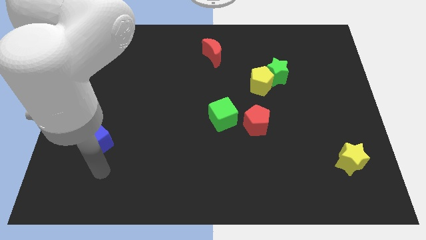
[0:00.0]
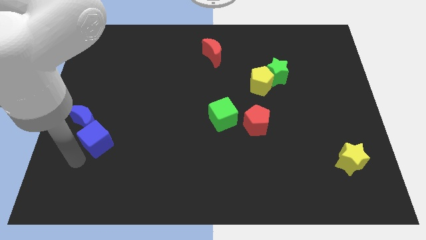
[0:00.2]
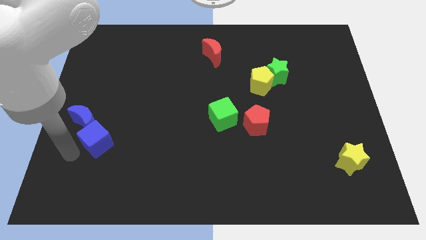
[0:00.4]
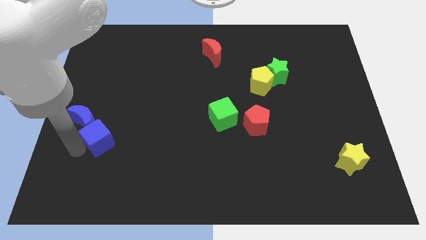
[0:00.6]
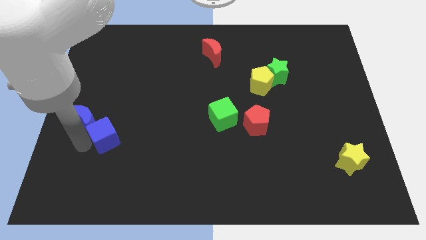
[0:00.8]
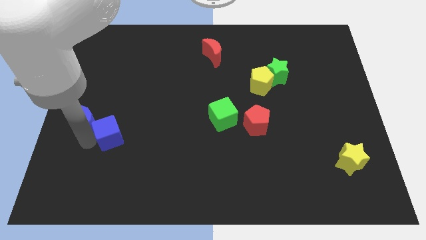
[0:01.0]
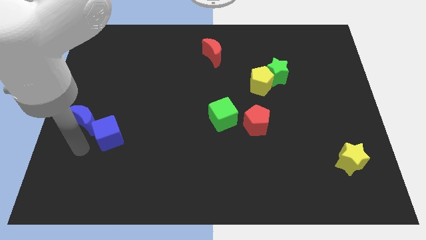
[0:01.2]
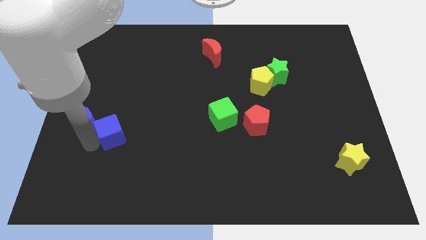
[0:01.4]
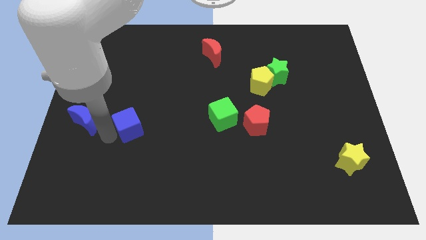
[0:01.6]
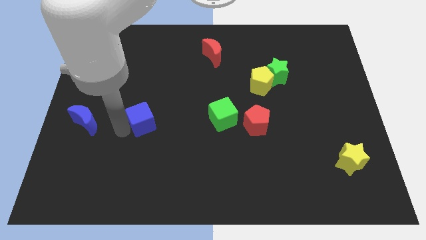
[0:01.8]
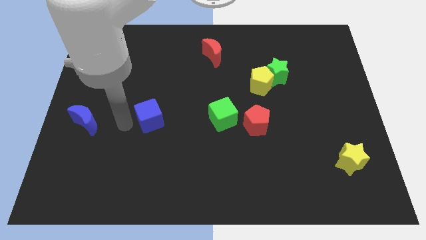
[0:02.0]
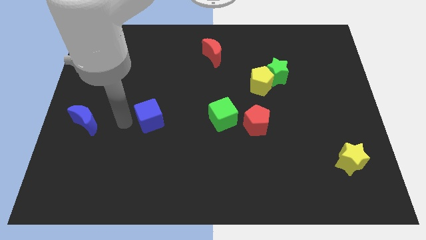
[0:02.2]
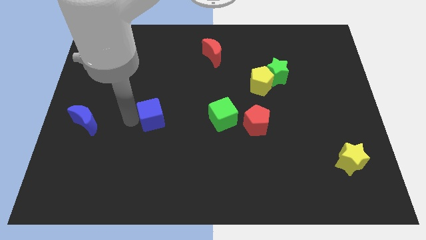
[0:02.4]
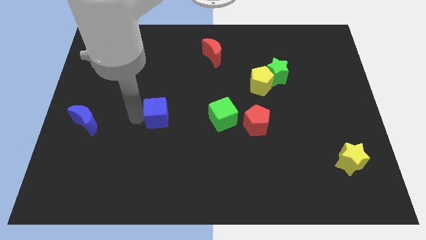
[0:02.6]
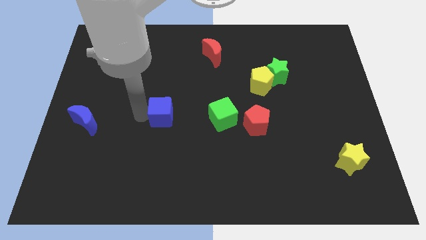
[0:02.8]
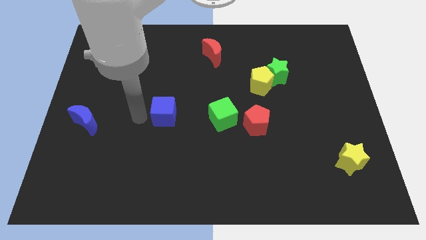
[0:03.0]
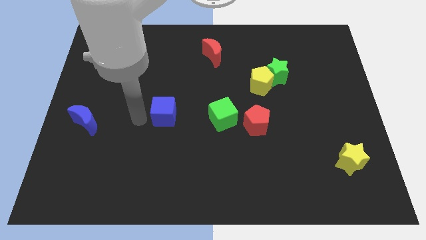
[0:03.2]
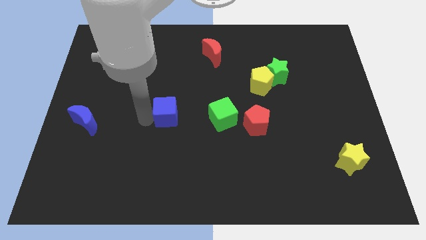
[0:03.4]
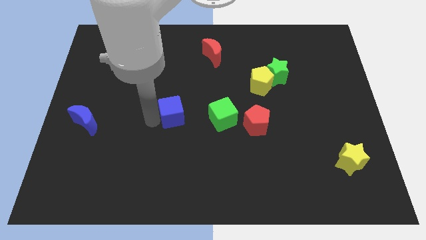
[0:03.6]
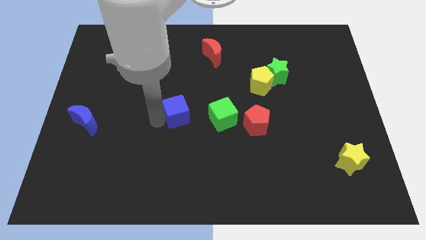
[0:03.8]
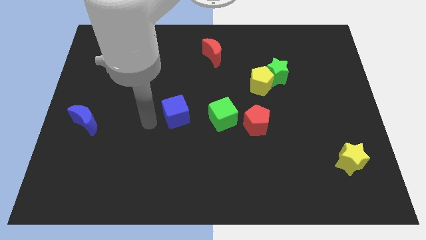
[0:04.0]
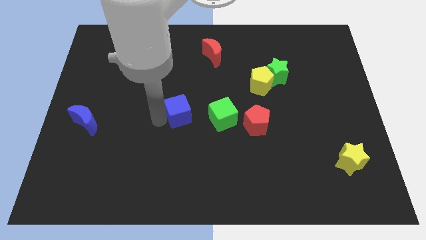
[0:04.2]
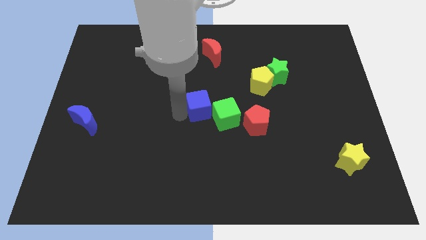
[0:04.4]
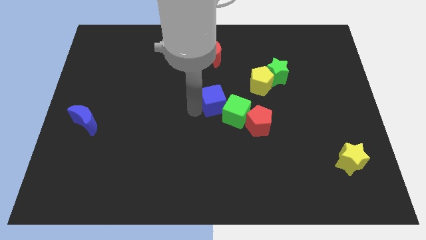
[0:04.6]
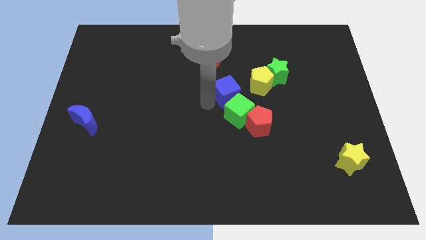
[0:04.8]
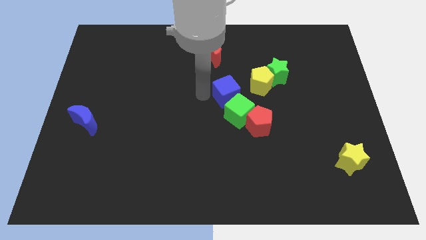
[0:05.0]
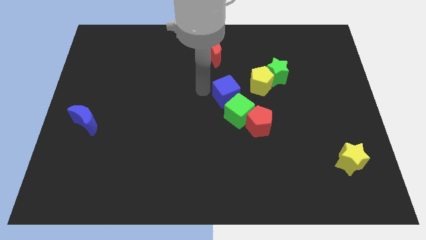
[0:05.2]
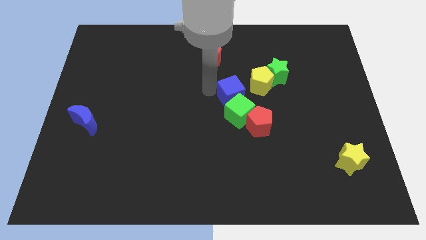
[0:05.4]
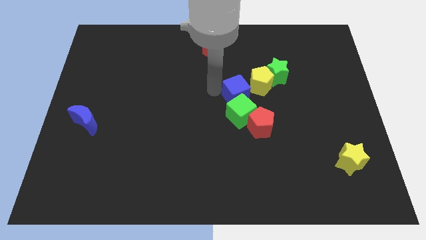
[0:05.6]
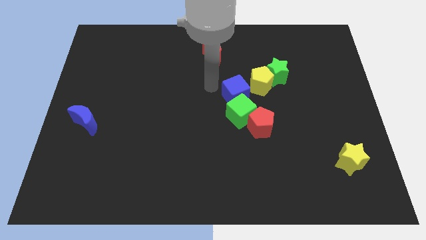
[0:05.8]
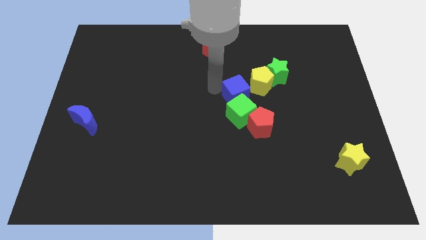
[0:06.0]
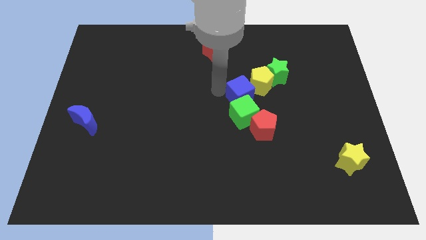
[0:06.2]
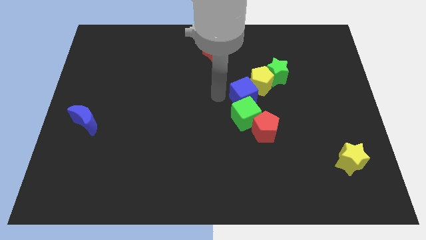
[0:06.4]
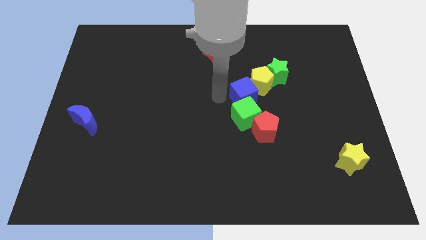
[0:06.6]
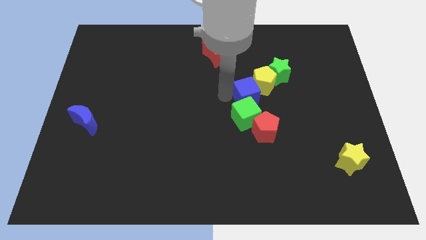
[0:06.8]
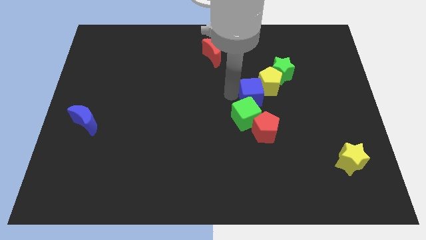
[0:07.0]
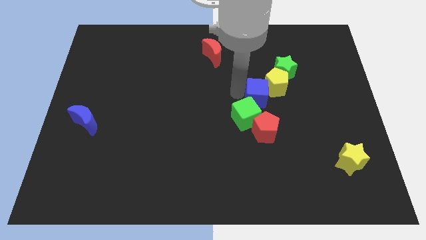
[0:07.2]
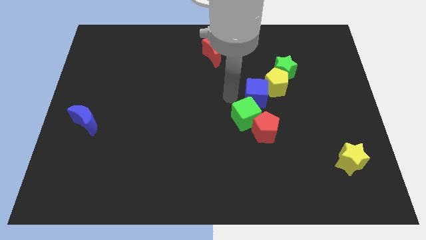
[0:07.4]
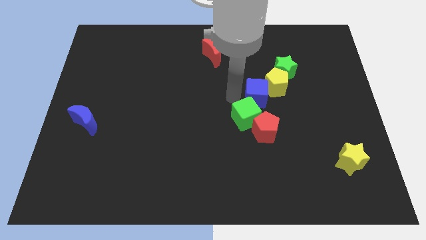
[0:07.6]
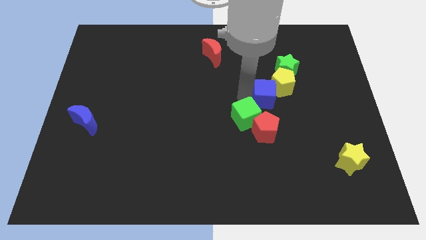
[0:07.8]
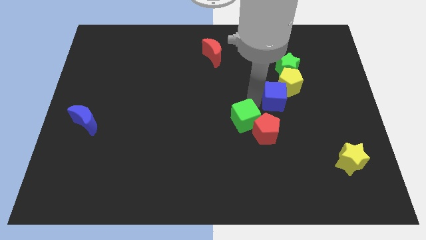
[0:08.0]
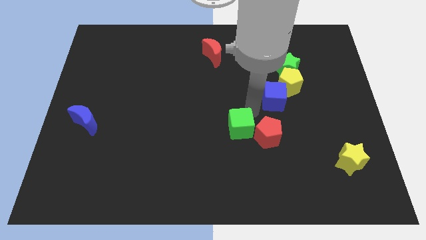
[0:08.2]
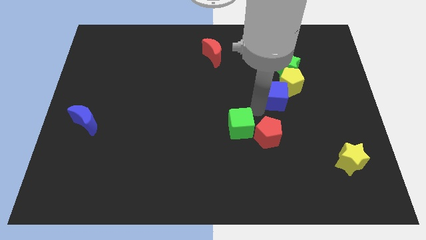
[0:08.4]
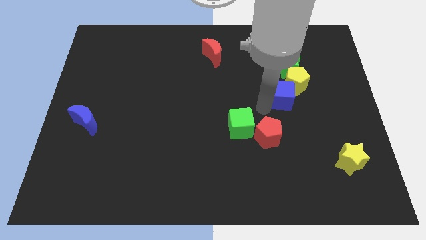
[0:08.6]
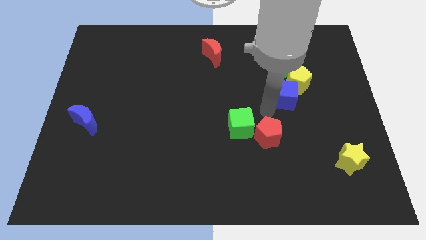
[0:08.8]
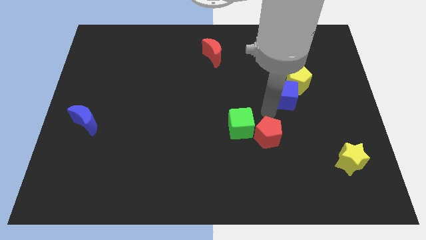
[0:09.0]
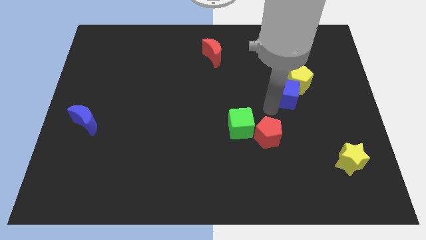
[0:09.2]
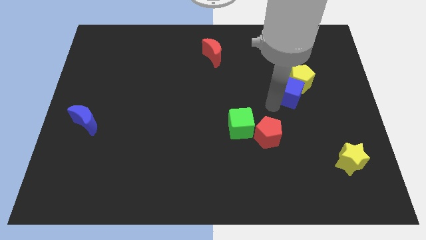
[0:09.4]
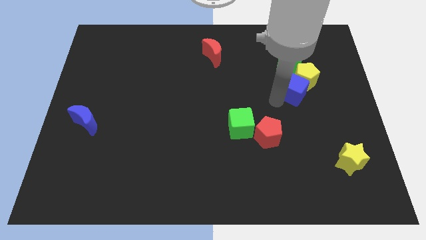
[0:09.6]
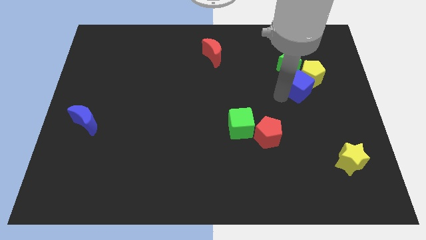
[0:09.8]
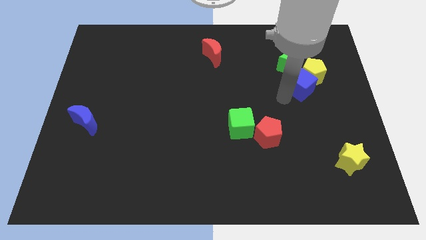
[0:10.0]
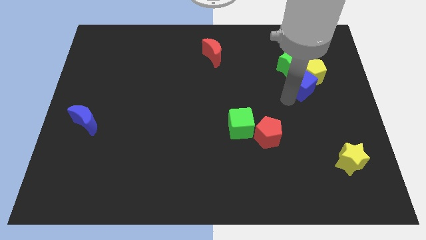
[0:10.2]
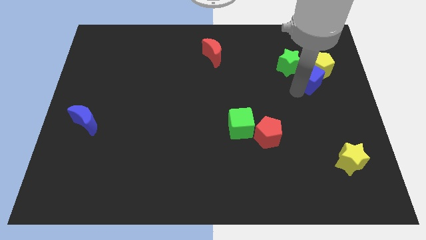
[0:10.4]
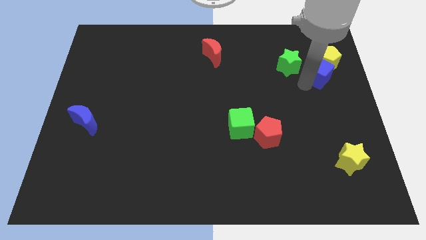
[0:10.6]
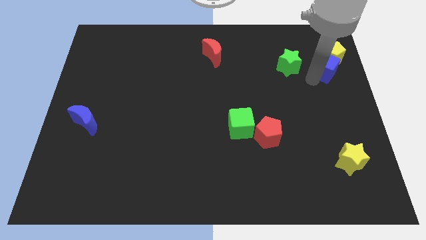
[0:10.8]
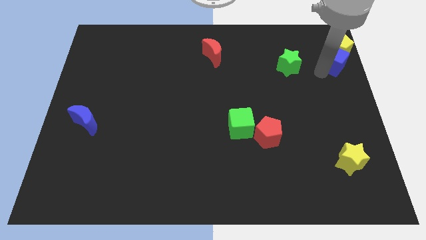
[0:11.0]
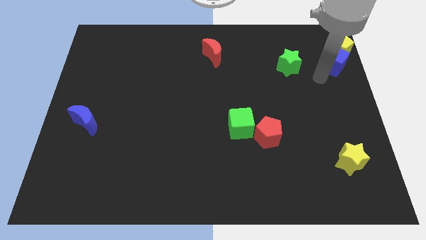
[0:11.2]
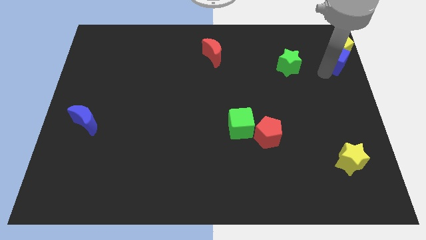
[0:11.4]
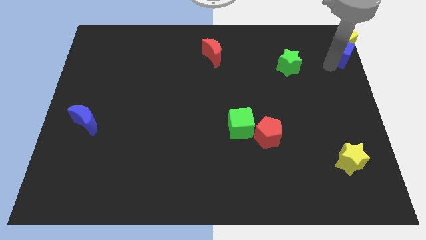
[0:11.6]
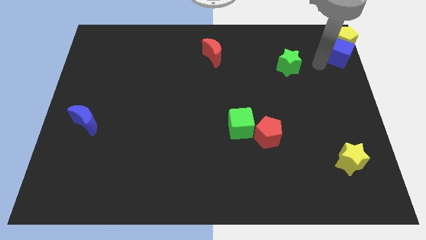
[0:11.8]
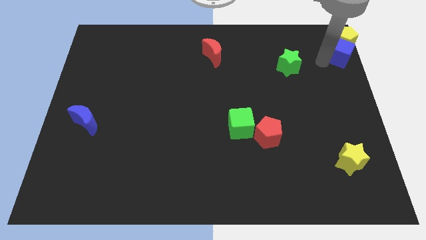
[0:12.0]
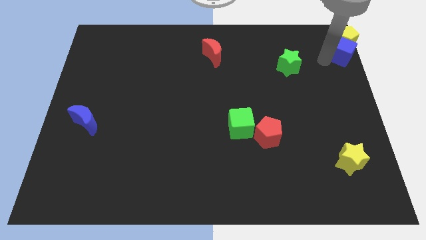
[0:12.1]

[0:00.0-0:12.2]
move the blue cube to the top right corner

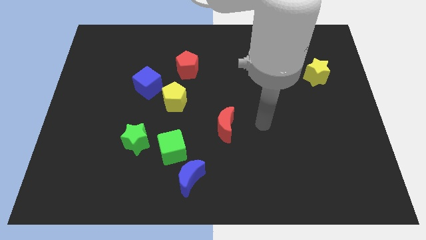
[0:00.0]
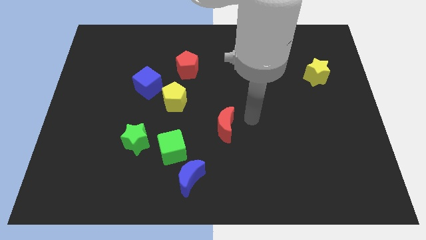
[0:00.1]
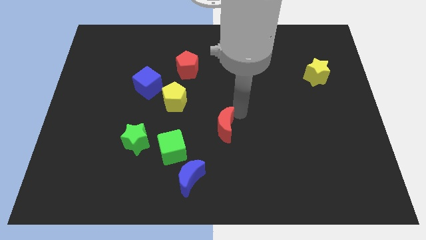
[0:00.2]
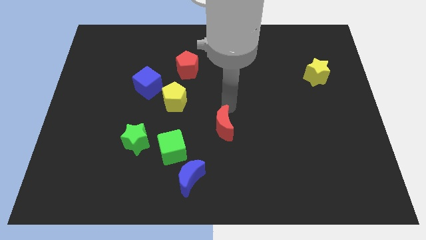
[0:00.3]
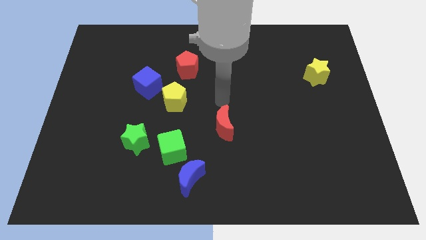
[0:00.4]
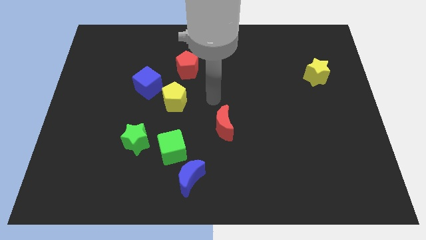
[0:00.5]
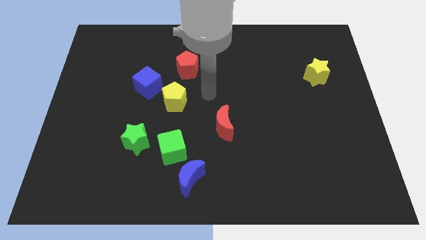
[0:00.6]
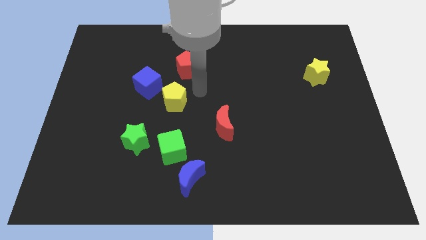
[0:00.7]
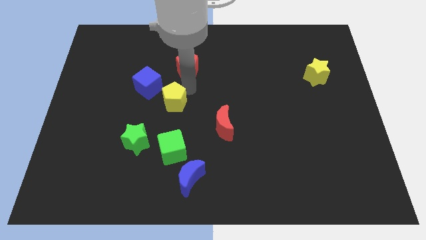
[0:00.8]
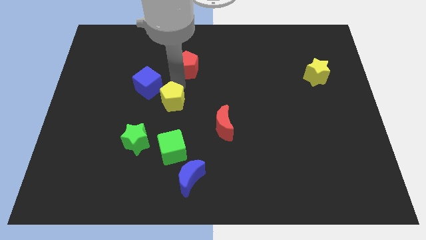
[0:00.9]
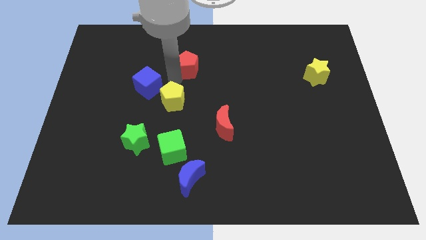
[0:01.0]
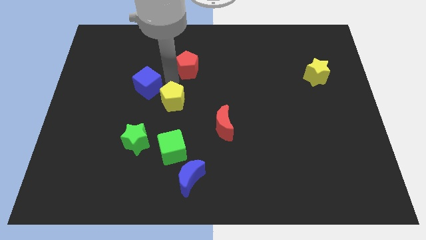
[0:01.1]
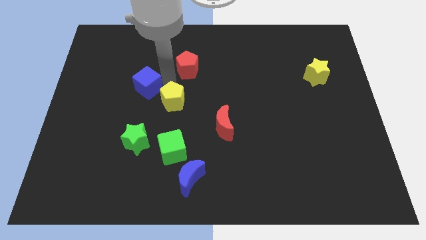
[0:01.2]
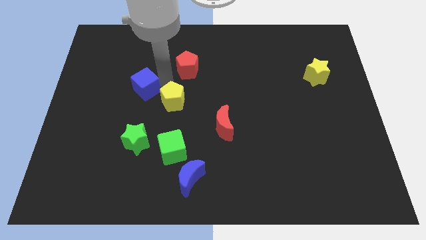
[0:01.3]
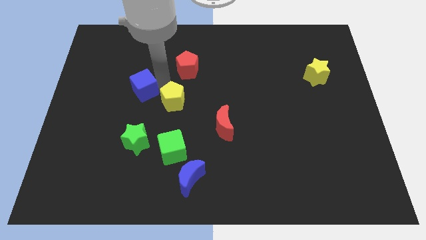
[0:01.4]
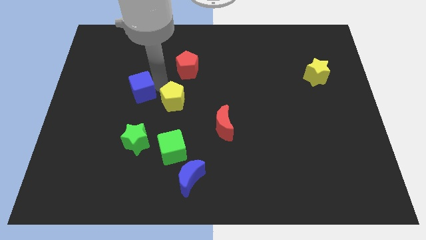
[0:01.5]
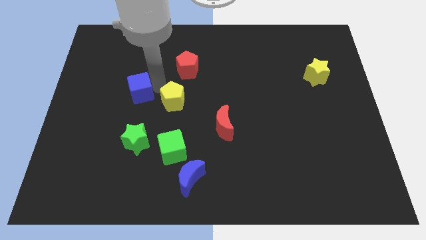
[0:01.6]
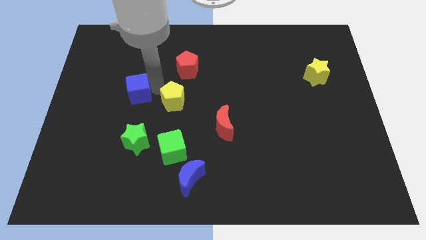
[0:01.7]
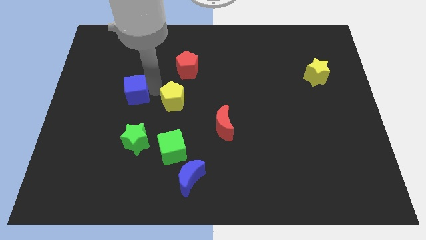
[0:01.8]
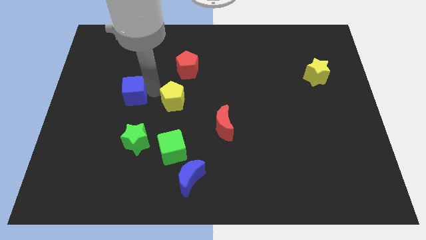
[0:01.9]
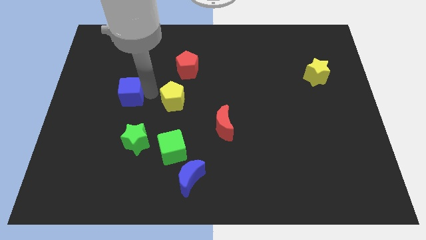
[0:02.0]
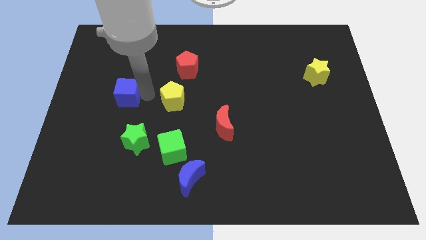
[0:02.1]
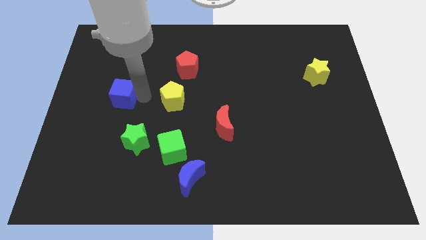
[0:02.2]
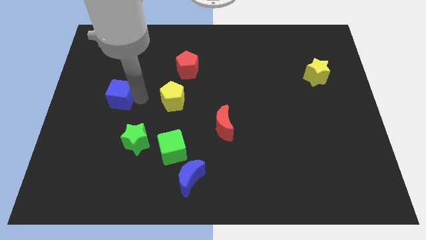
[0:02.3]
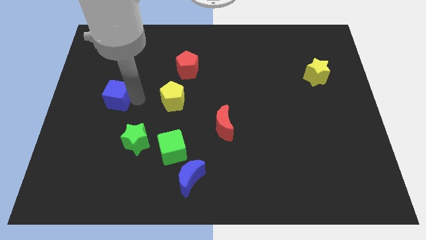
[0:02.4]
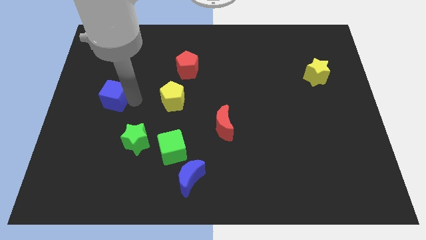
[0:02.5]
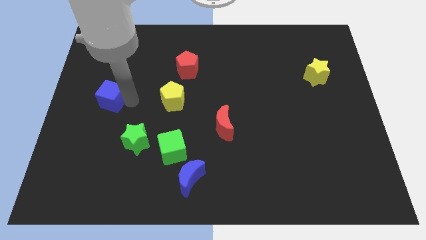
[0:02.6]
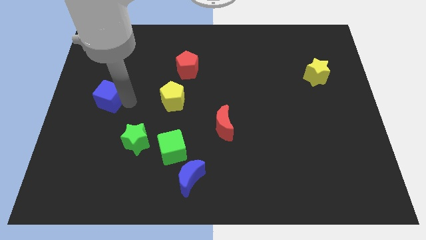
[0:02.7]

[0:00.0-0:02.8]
push the blue cube to the center left
